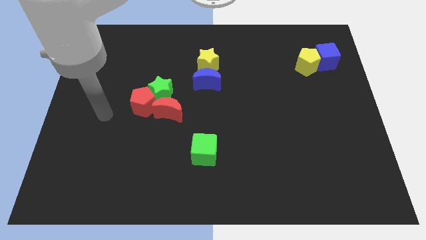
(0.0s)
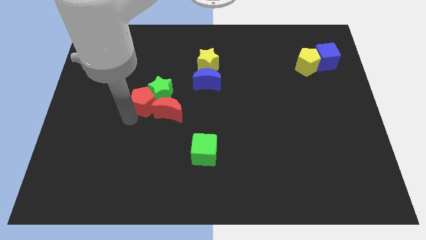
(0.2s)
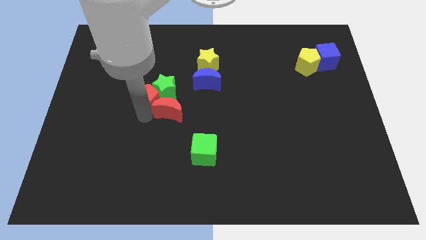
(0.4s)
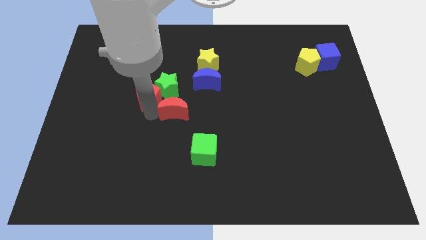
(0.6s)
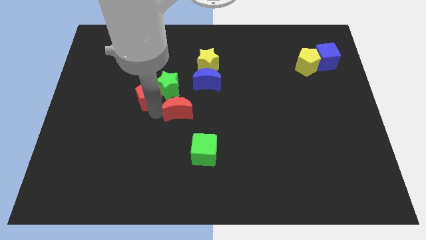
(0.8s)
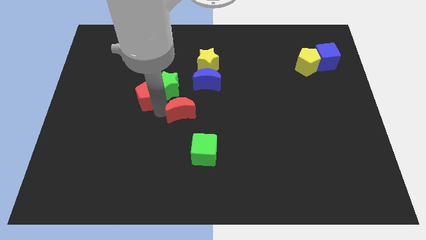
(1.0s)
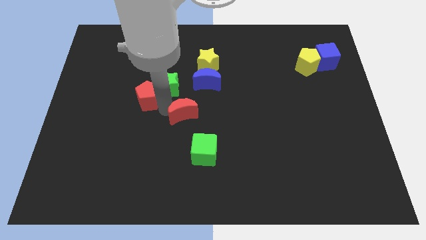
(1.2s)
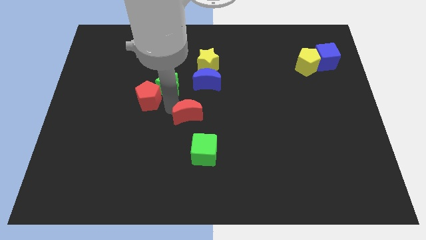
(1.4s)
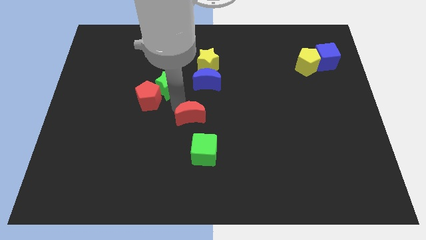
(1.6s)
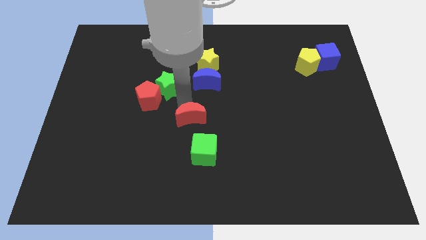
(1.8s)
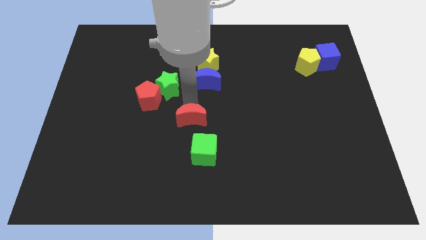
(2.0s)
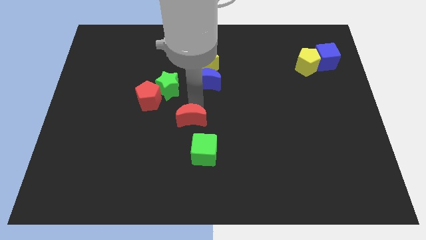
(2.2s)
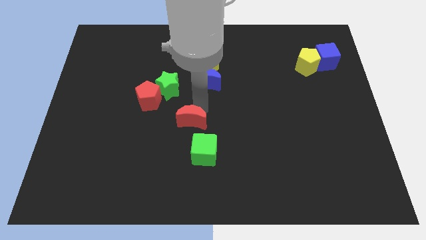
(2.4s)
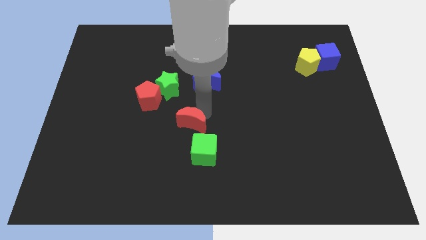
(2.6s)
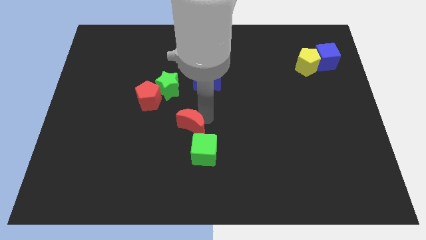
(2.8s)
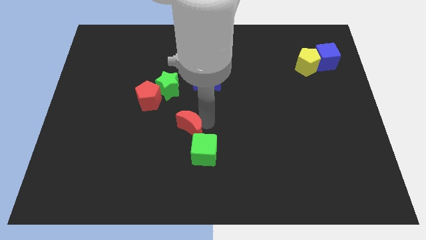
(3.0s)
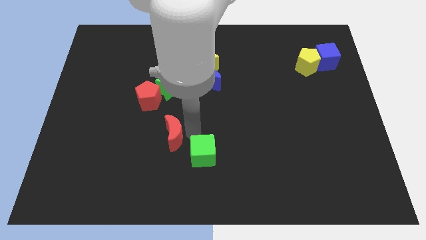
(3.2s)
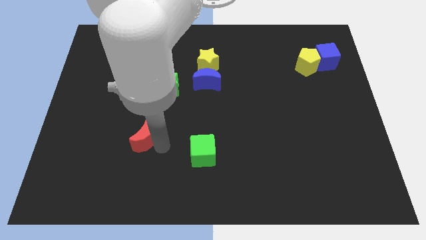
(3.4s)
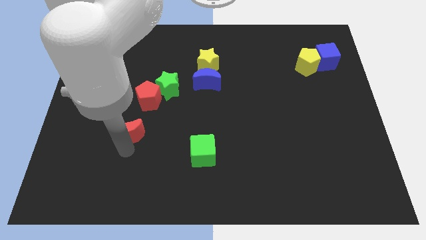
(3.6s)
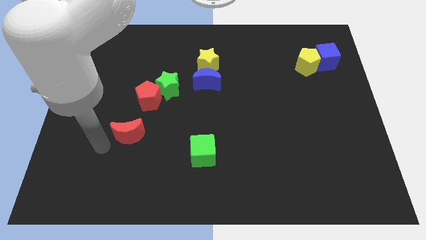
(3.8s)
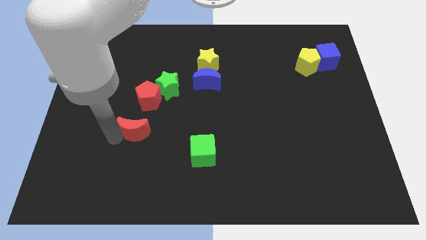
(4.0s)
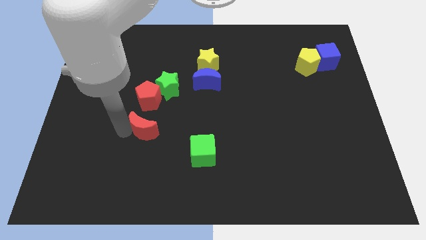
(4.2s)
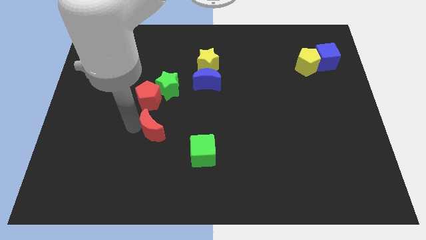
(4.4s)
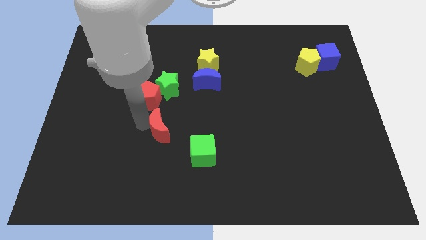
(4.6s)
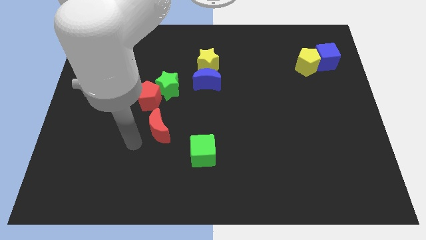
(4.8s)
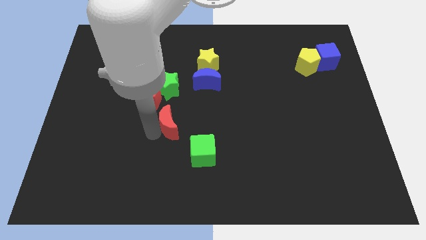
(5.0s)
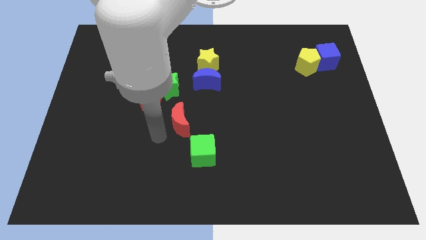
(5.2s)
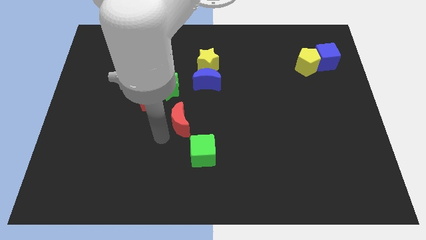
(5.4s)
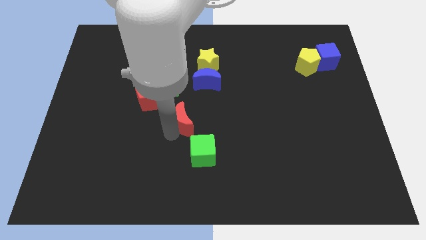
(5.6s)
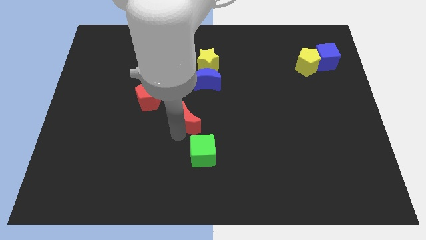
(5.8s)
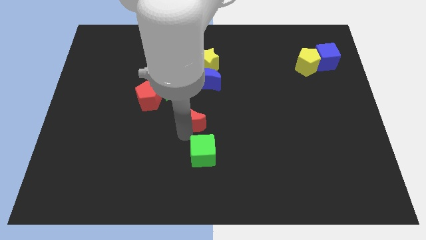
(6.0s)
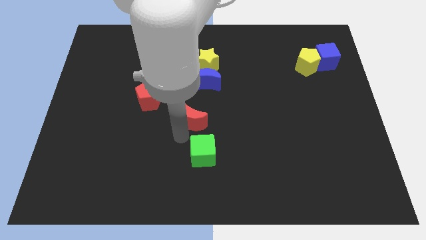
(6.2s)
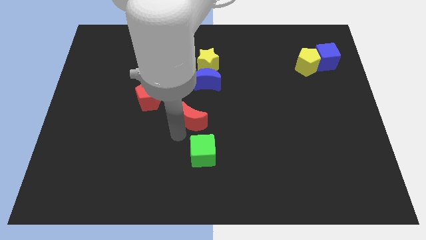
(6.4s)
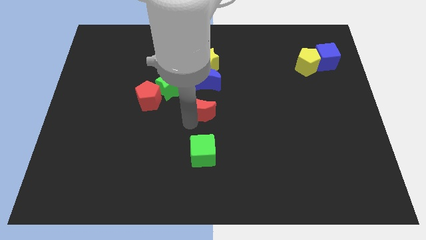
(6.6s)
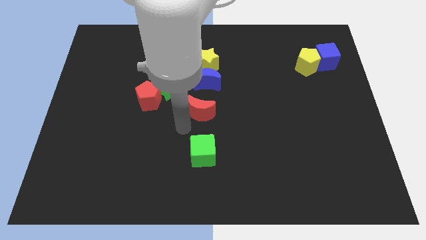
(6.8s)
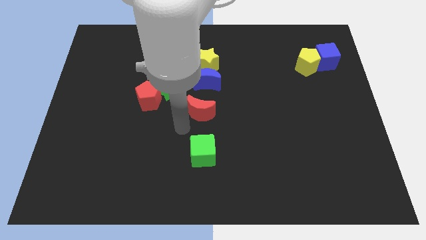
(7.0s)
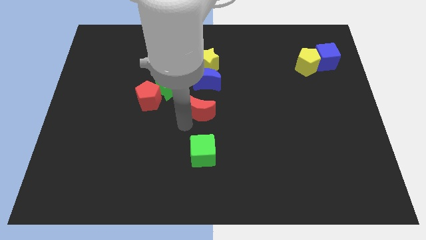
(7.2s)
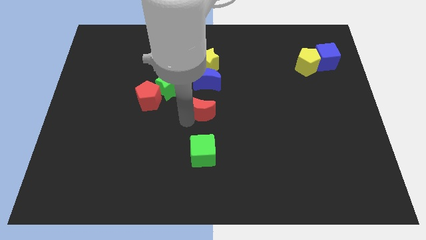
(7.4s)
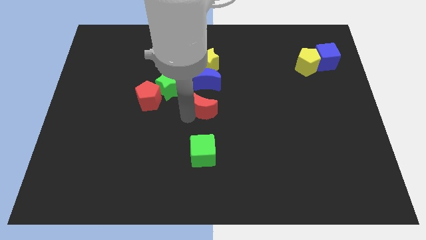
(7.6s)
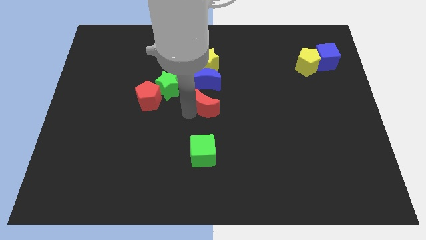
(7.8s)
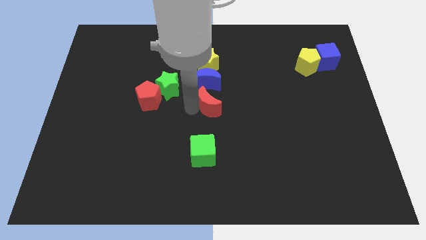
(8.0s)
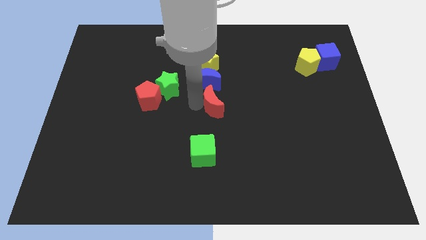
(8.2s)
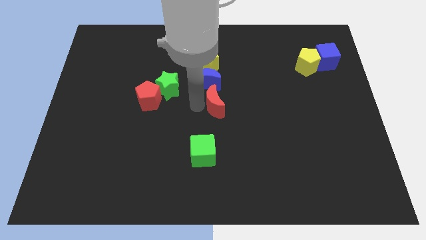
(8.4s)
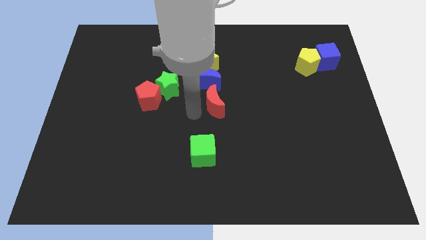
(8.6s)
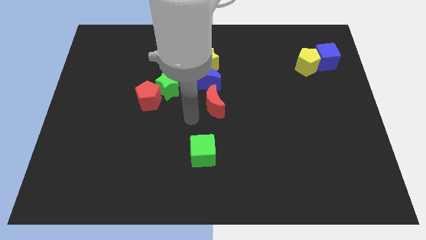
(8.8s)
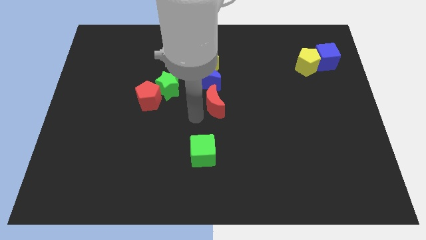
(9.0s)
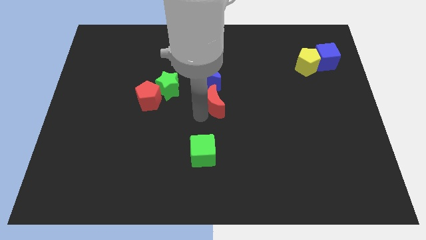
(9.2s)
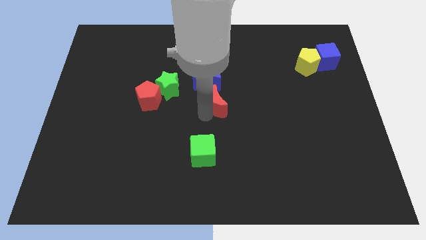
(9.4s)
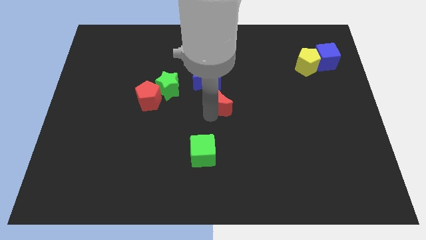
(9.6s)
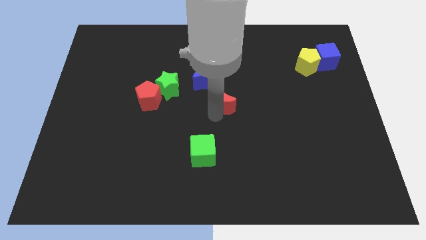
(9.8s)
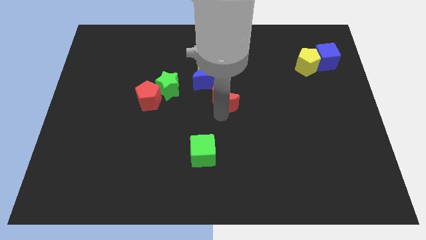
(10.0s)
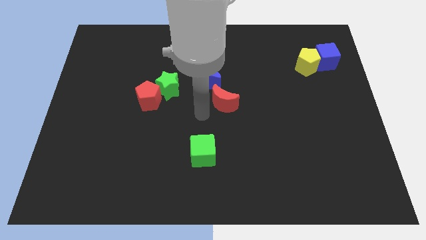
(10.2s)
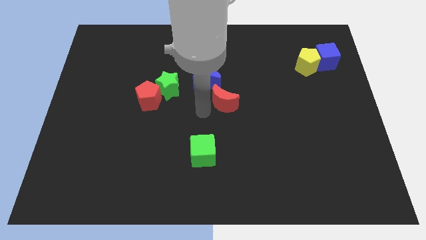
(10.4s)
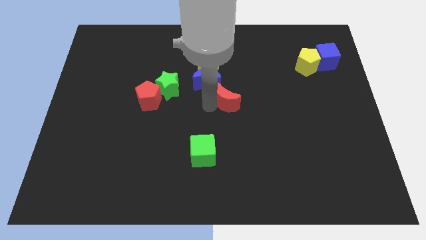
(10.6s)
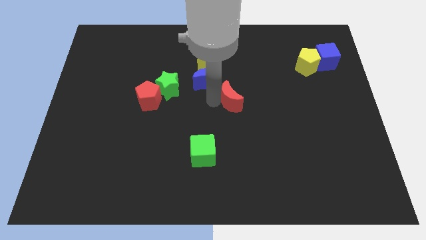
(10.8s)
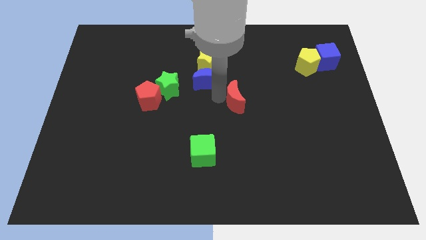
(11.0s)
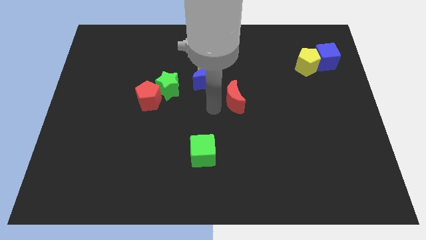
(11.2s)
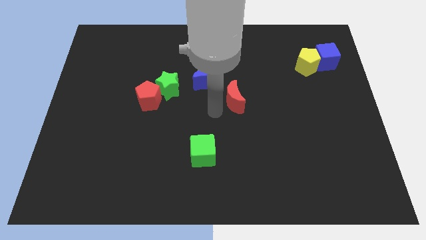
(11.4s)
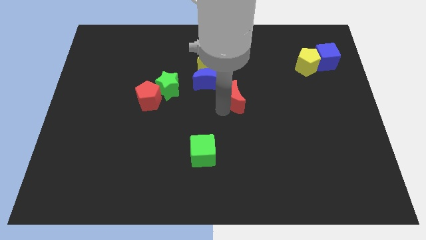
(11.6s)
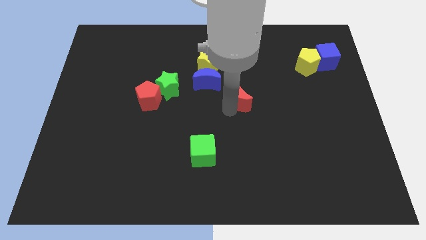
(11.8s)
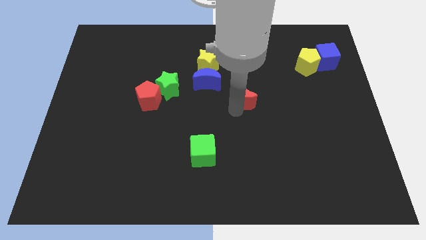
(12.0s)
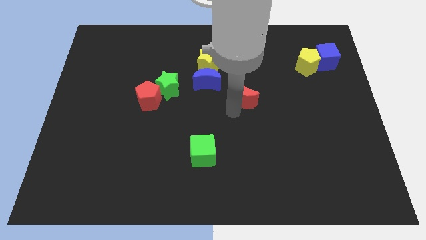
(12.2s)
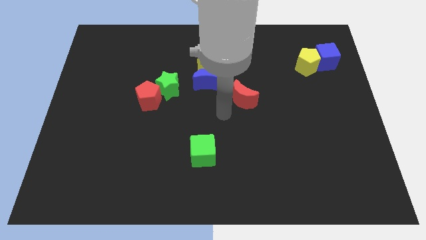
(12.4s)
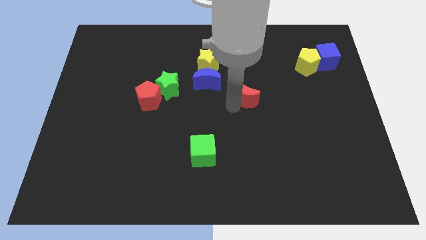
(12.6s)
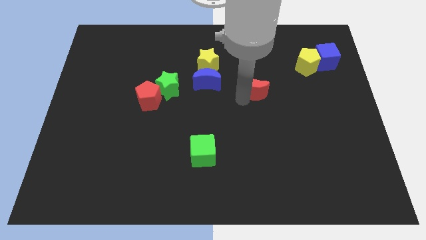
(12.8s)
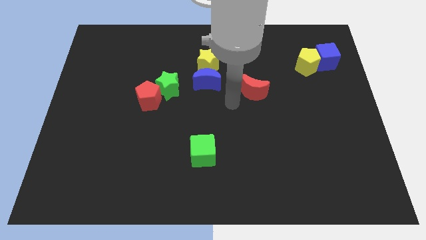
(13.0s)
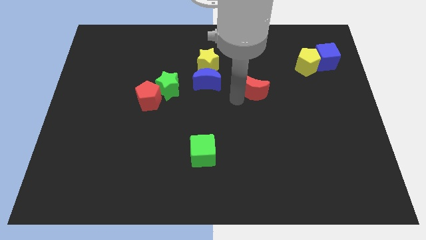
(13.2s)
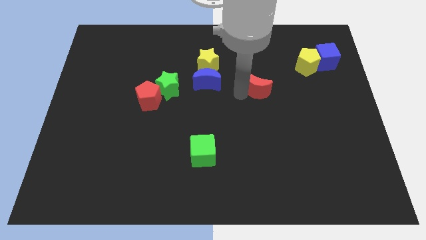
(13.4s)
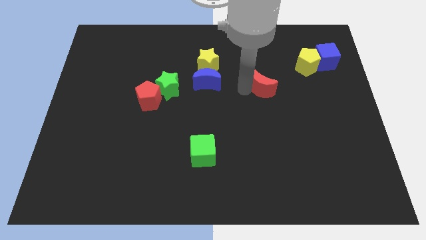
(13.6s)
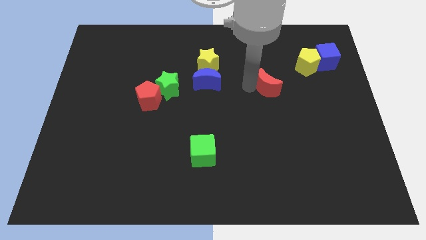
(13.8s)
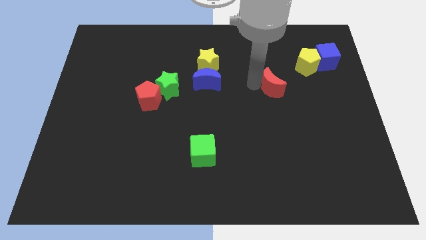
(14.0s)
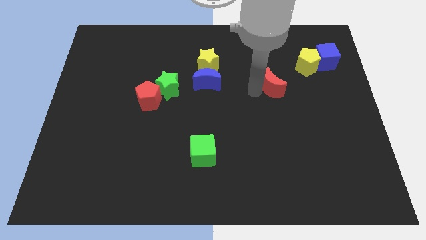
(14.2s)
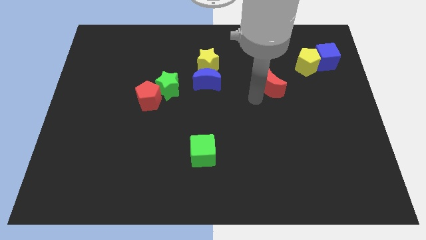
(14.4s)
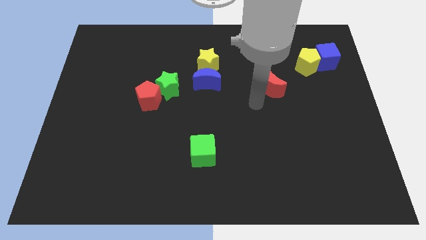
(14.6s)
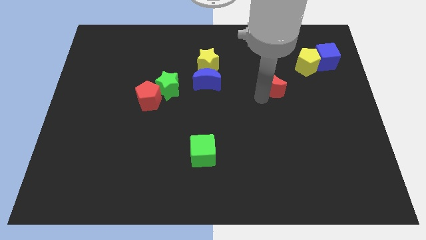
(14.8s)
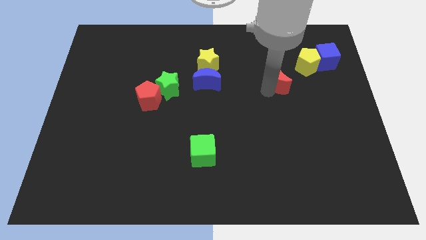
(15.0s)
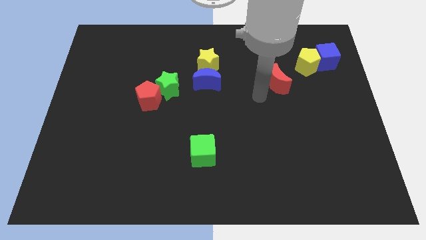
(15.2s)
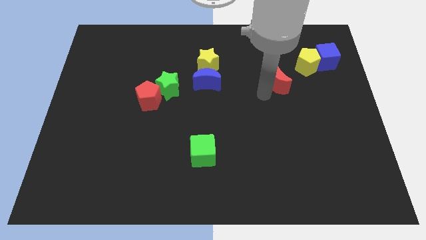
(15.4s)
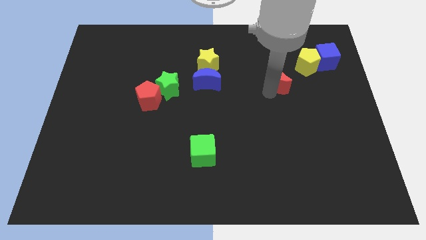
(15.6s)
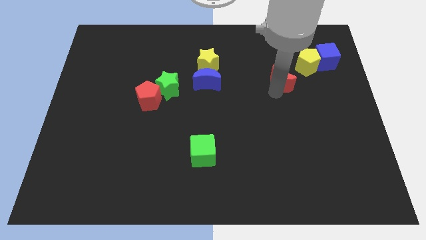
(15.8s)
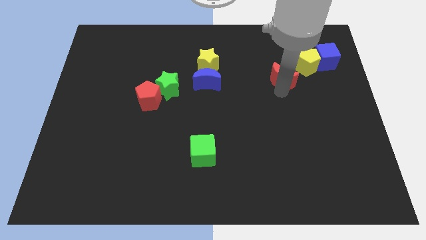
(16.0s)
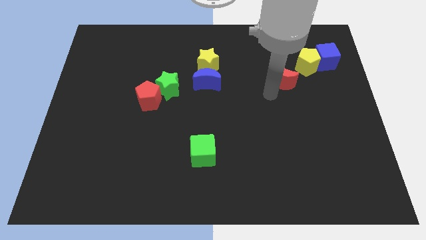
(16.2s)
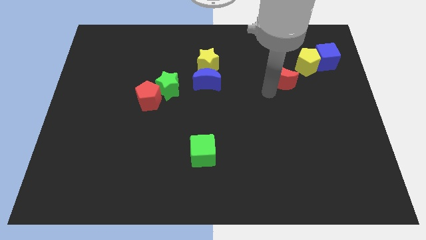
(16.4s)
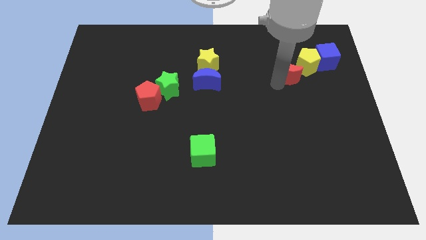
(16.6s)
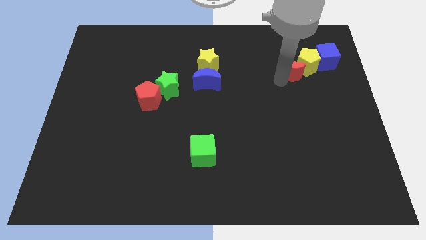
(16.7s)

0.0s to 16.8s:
push the red moon next to the yellow pentagon

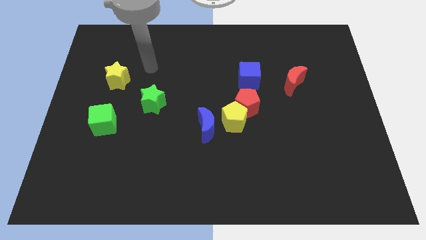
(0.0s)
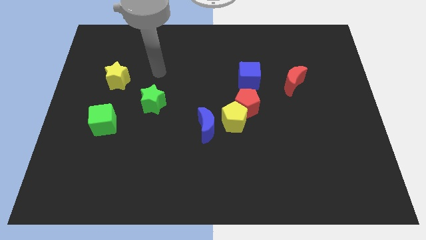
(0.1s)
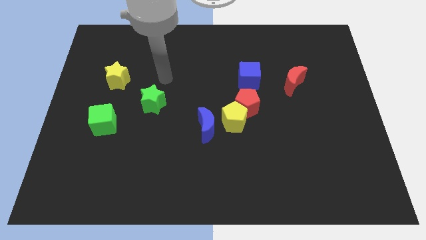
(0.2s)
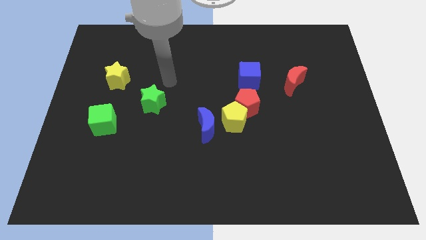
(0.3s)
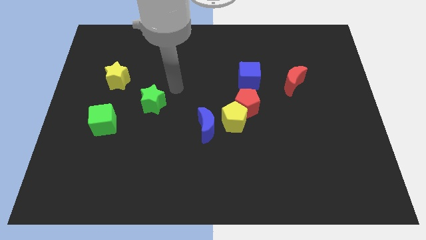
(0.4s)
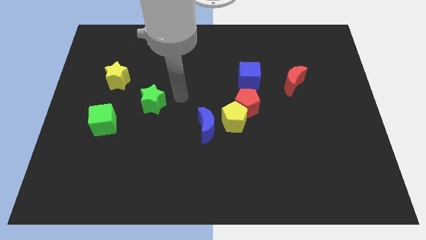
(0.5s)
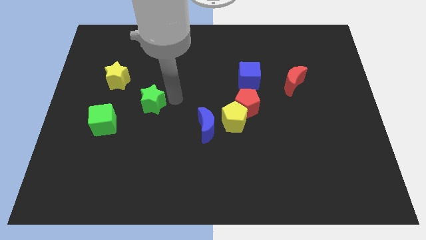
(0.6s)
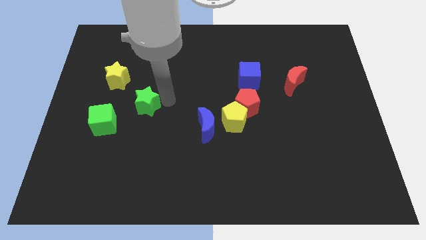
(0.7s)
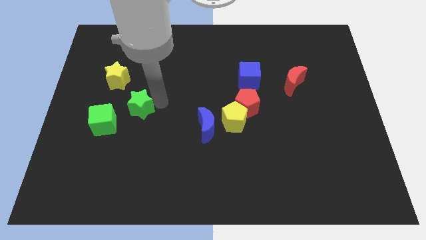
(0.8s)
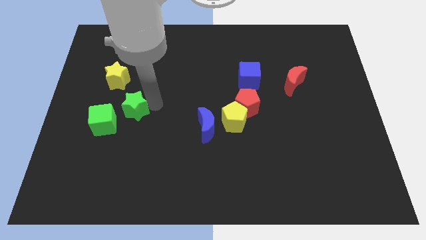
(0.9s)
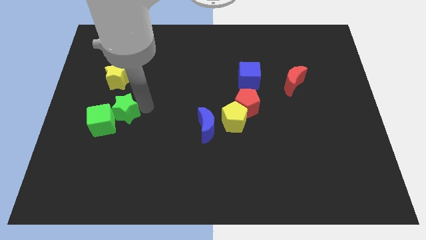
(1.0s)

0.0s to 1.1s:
move the green star close to the green cube
